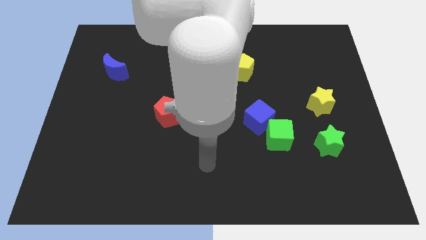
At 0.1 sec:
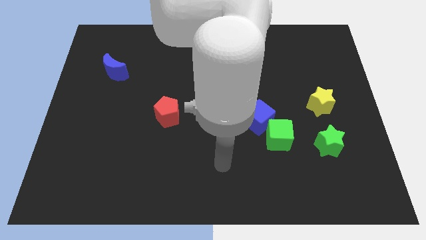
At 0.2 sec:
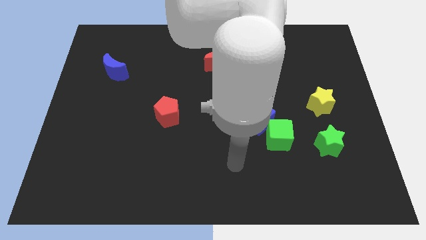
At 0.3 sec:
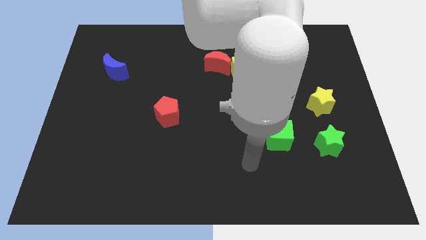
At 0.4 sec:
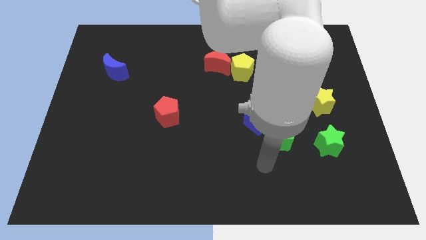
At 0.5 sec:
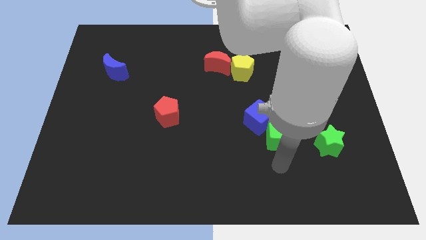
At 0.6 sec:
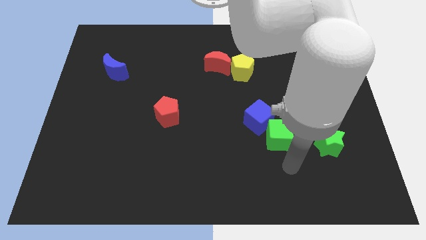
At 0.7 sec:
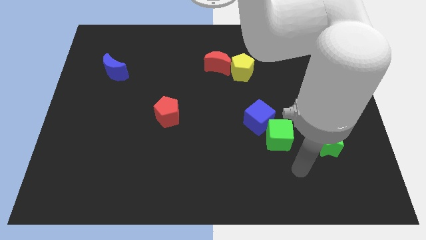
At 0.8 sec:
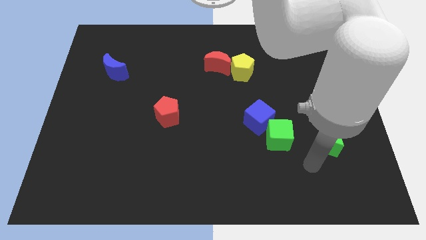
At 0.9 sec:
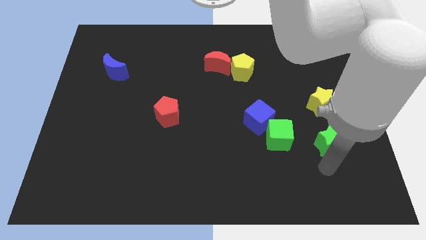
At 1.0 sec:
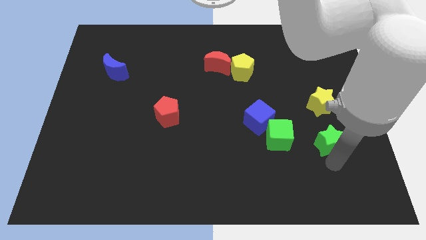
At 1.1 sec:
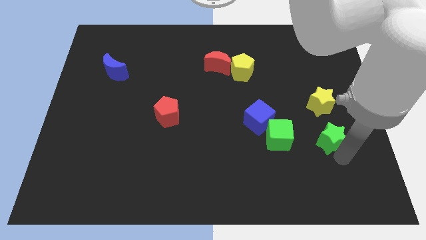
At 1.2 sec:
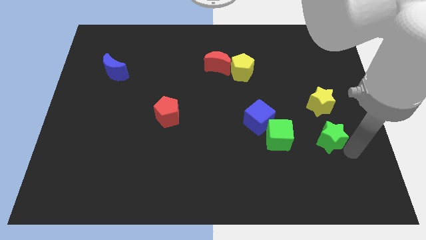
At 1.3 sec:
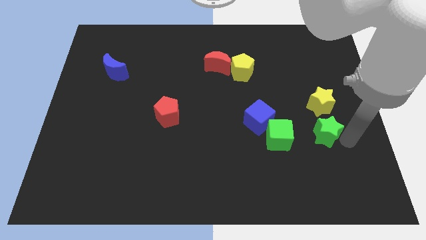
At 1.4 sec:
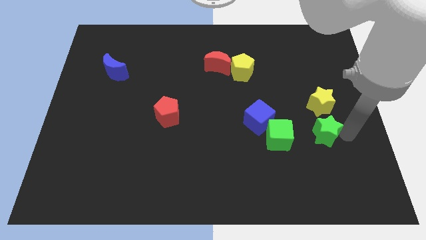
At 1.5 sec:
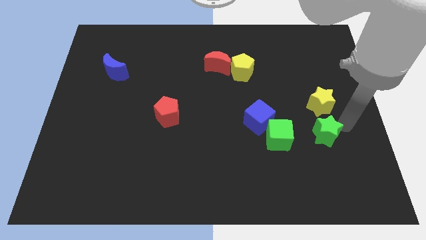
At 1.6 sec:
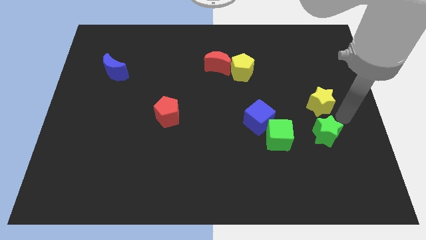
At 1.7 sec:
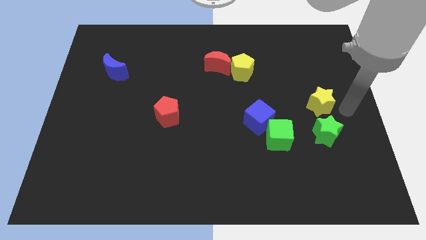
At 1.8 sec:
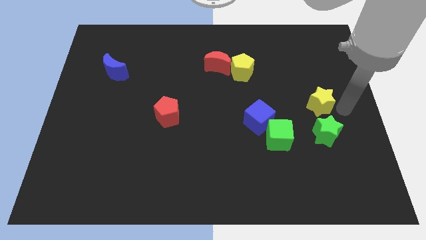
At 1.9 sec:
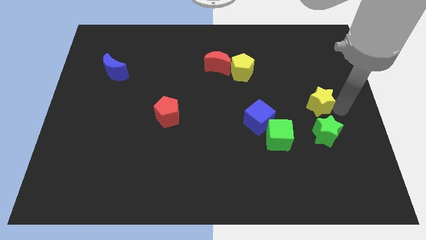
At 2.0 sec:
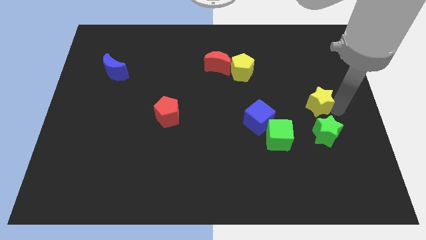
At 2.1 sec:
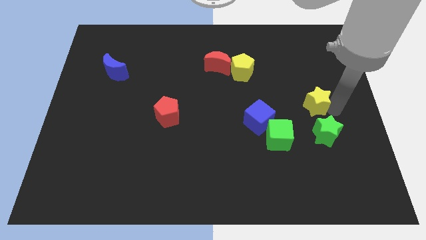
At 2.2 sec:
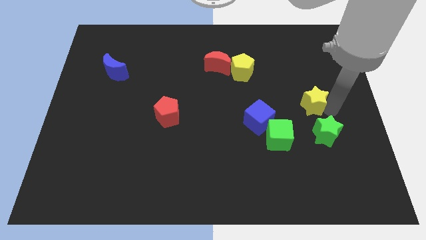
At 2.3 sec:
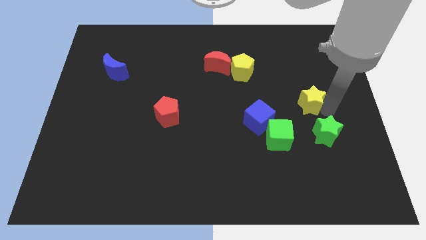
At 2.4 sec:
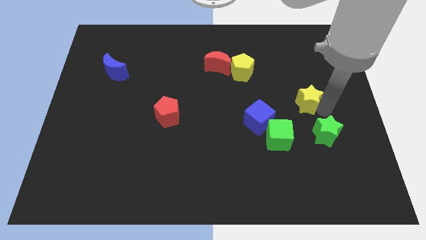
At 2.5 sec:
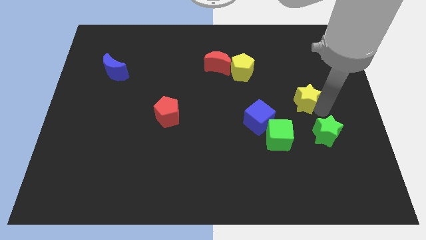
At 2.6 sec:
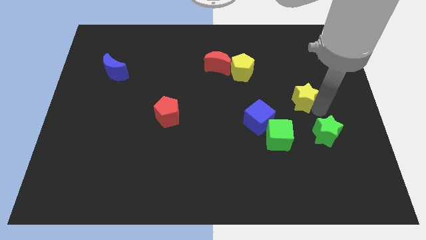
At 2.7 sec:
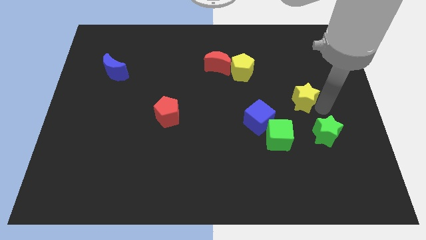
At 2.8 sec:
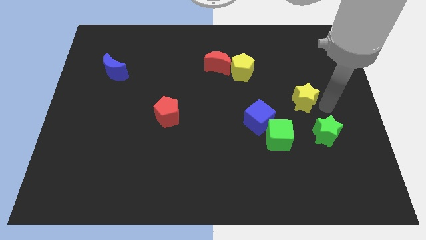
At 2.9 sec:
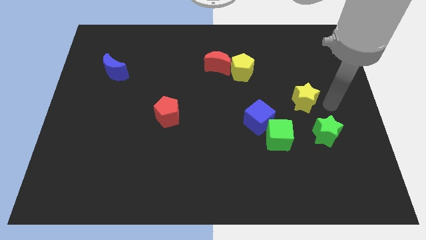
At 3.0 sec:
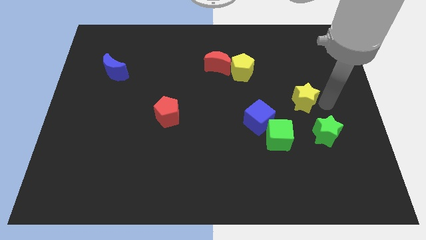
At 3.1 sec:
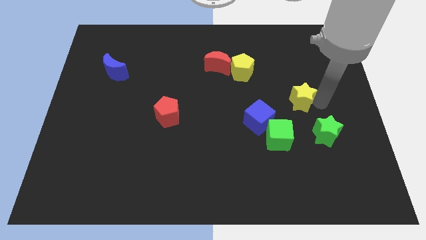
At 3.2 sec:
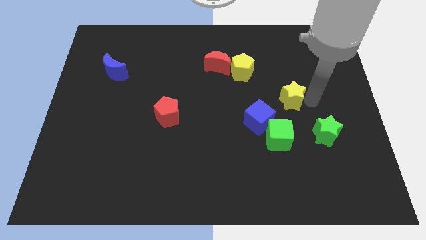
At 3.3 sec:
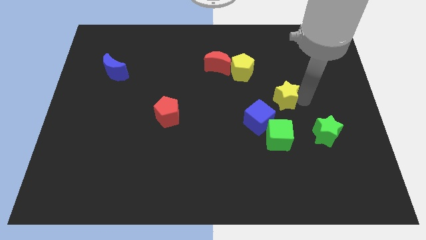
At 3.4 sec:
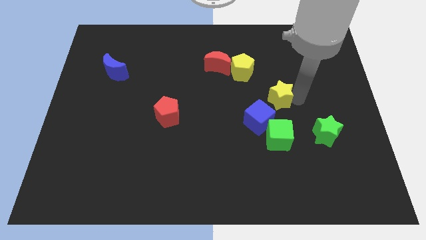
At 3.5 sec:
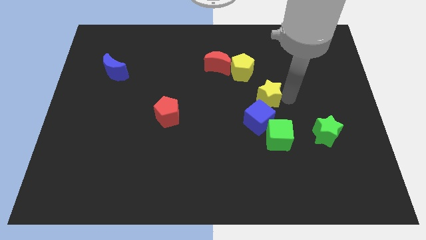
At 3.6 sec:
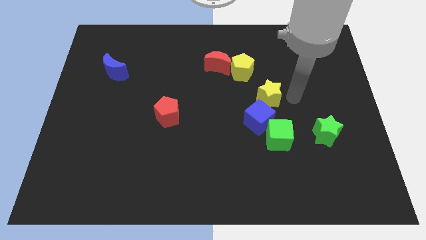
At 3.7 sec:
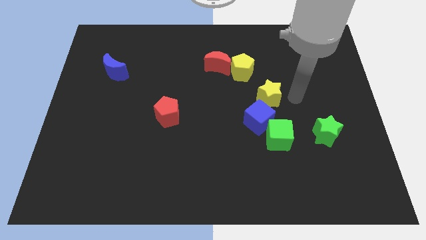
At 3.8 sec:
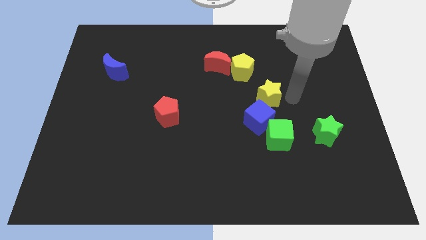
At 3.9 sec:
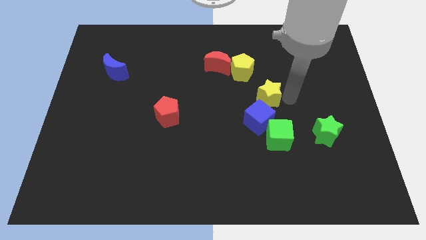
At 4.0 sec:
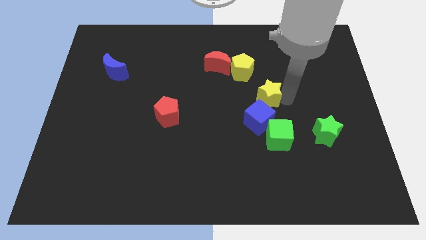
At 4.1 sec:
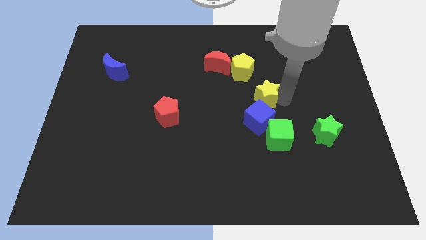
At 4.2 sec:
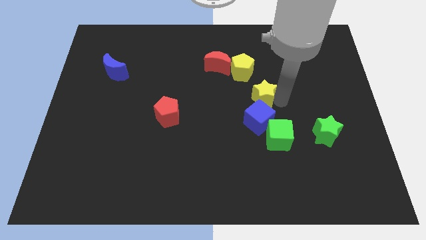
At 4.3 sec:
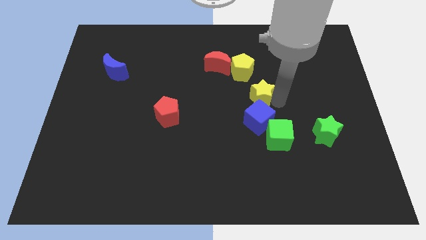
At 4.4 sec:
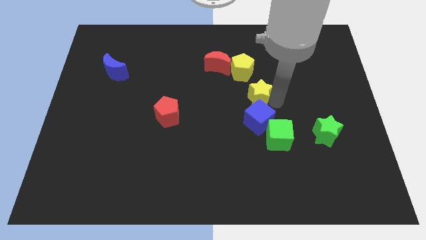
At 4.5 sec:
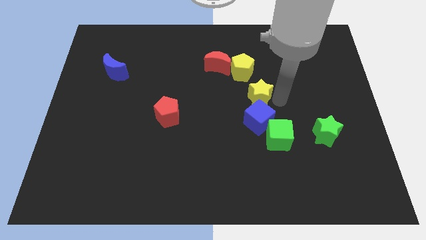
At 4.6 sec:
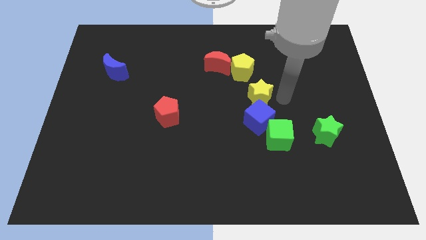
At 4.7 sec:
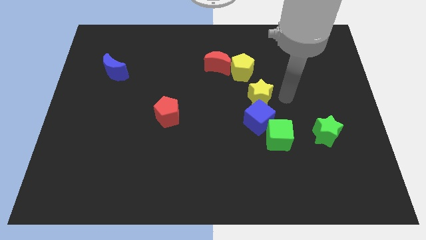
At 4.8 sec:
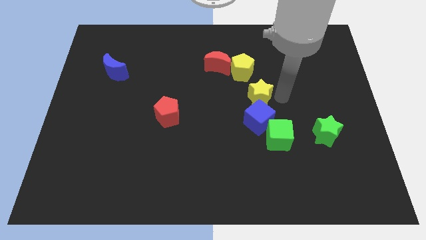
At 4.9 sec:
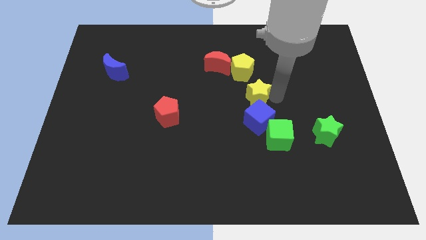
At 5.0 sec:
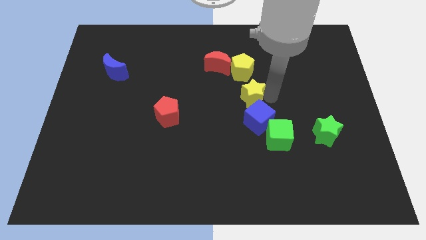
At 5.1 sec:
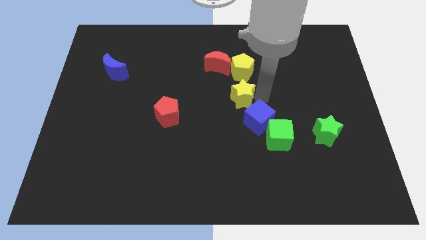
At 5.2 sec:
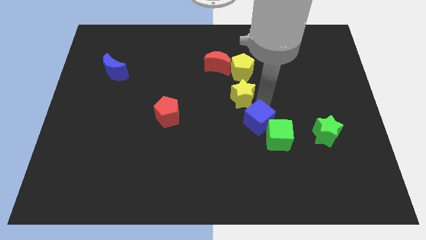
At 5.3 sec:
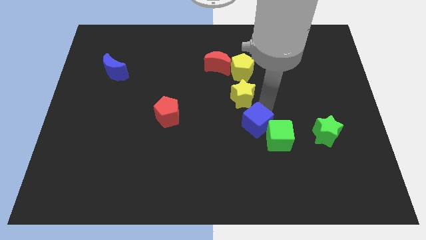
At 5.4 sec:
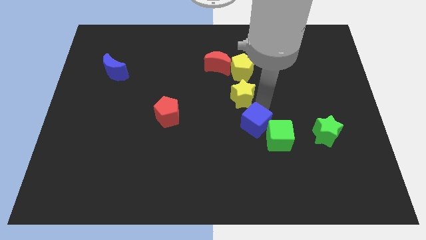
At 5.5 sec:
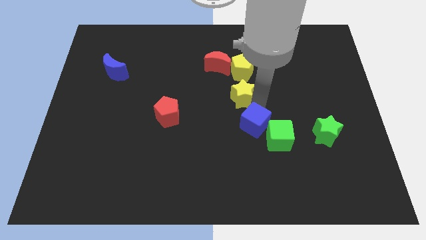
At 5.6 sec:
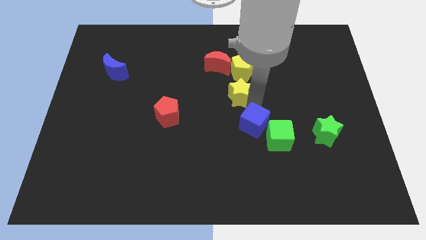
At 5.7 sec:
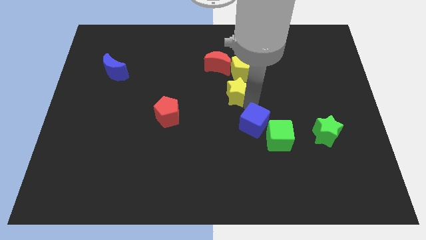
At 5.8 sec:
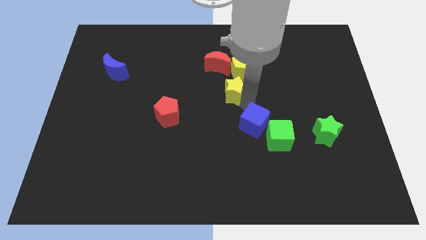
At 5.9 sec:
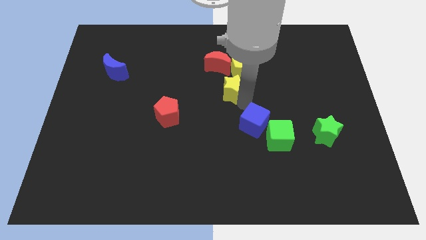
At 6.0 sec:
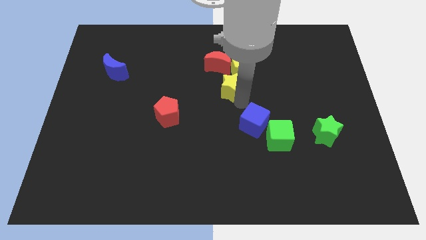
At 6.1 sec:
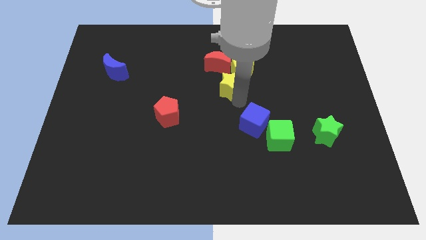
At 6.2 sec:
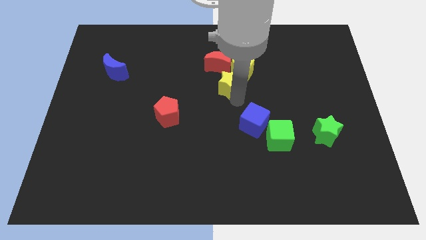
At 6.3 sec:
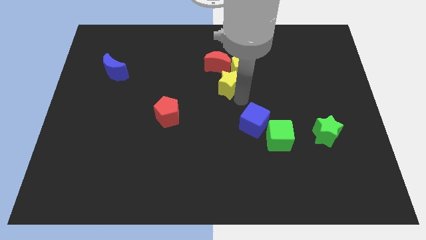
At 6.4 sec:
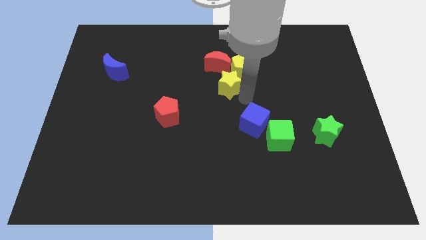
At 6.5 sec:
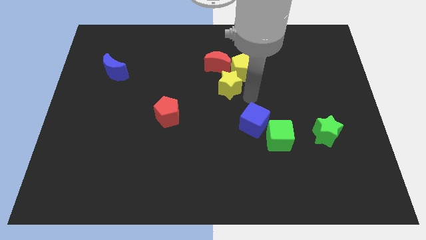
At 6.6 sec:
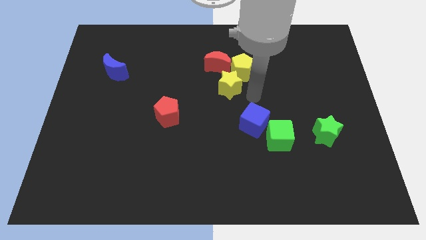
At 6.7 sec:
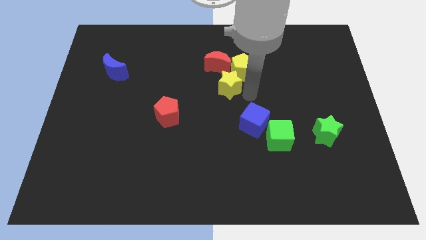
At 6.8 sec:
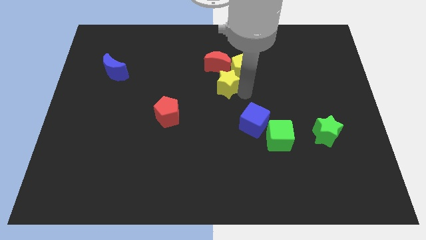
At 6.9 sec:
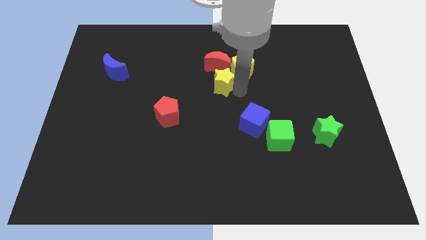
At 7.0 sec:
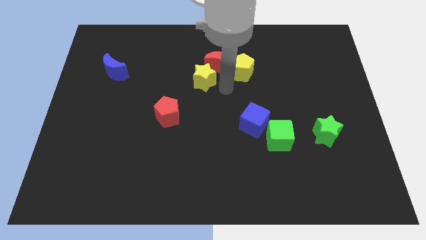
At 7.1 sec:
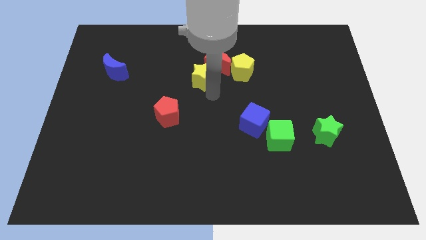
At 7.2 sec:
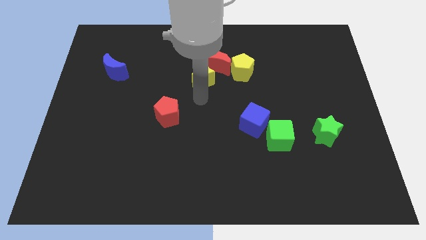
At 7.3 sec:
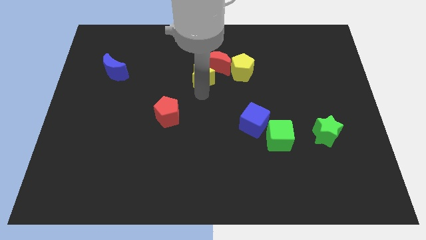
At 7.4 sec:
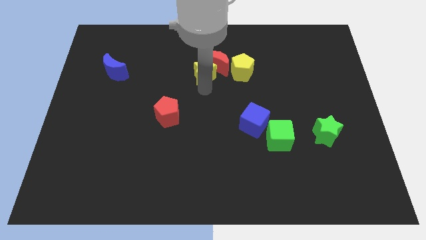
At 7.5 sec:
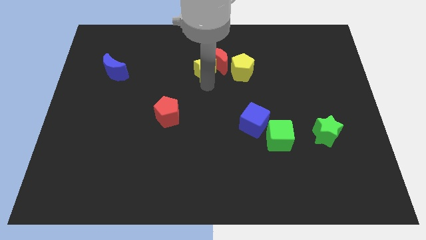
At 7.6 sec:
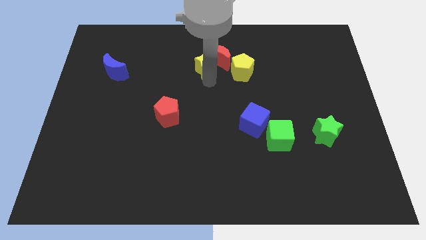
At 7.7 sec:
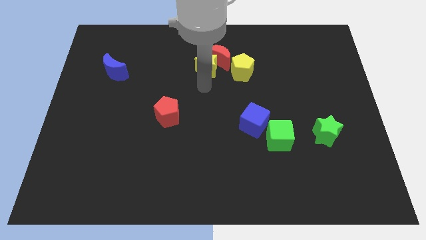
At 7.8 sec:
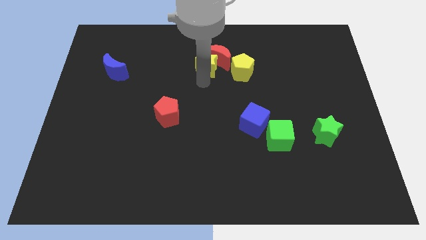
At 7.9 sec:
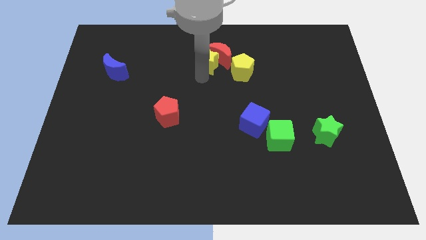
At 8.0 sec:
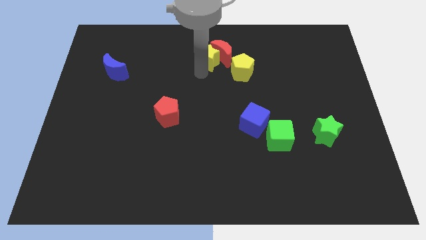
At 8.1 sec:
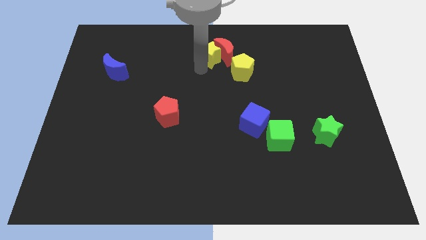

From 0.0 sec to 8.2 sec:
push the yellow star to the top side
